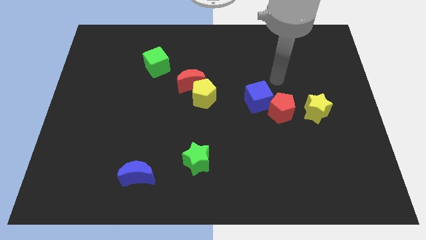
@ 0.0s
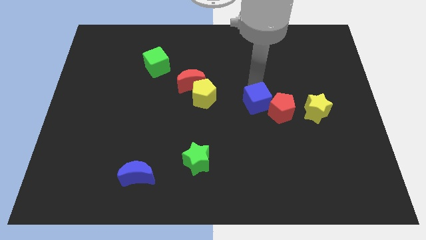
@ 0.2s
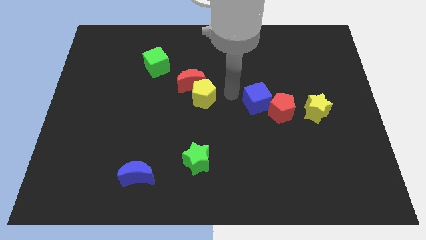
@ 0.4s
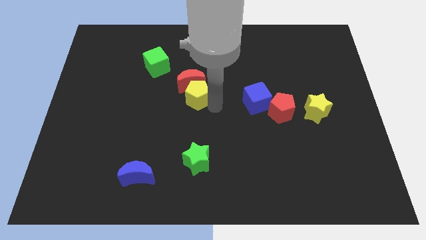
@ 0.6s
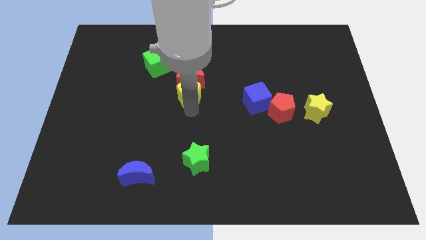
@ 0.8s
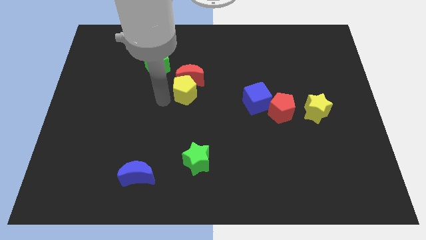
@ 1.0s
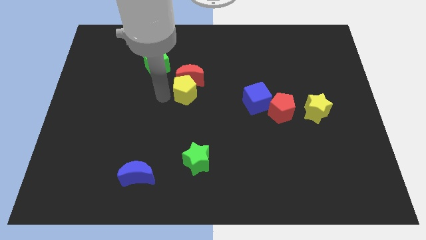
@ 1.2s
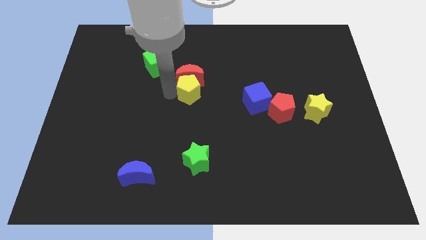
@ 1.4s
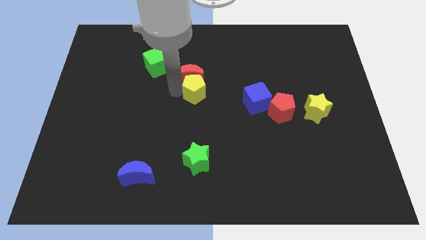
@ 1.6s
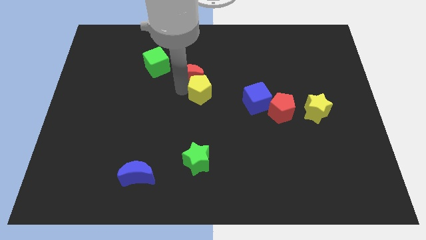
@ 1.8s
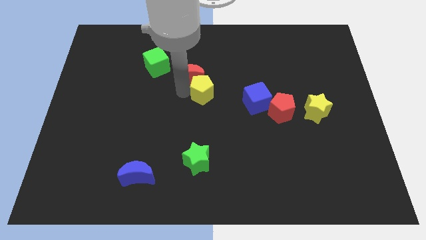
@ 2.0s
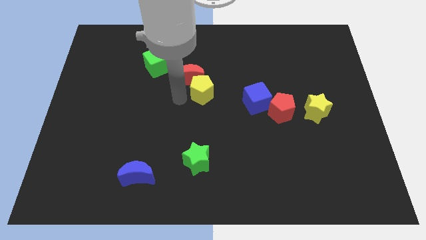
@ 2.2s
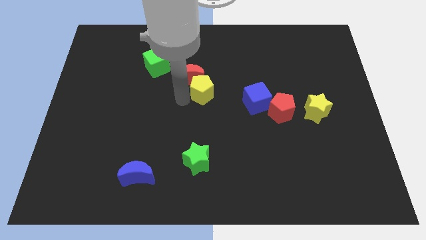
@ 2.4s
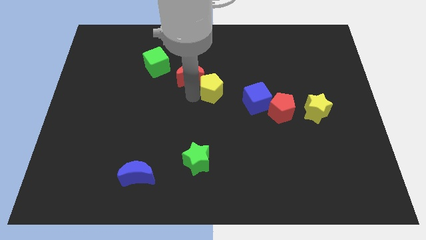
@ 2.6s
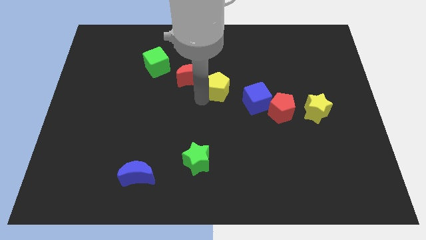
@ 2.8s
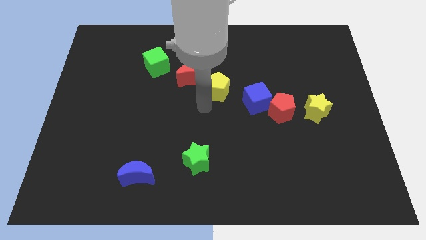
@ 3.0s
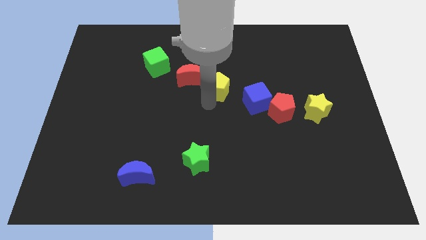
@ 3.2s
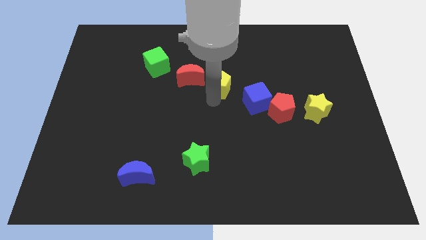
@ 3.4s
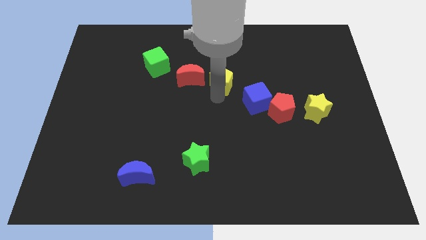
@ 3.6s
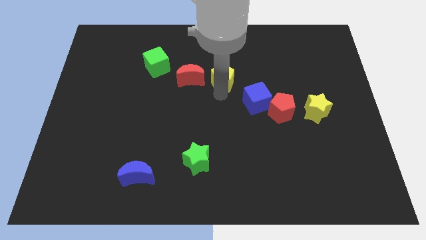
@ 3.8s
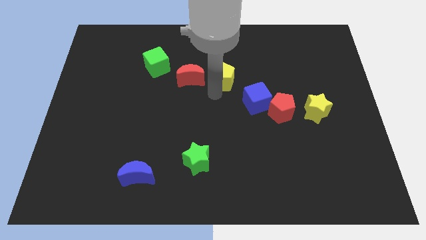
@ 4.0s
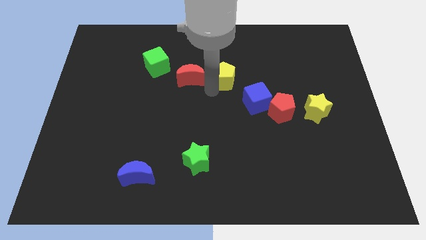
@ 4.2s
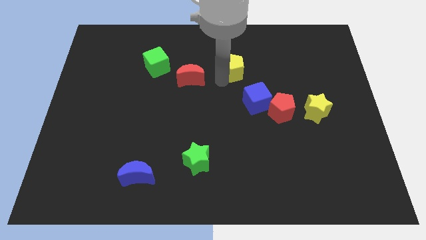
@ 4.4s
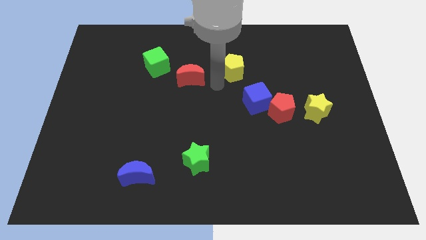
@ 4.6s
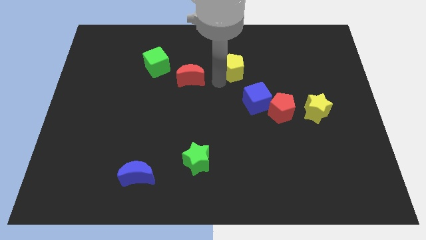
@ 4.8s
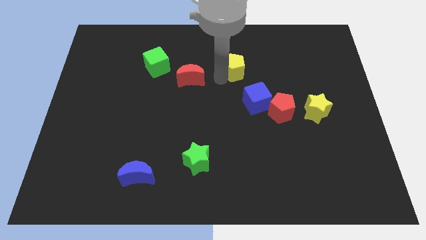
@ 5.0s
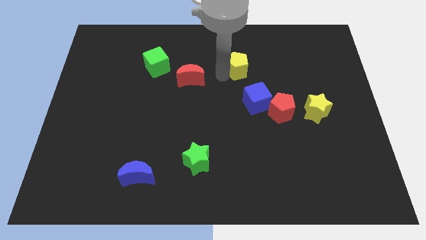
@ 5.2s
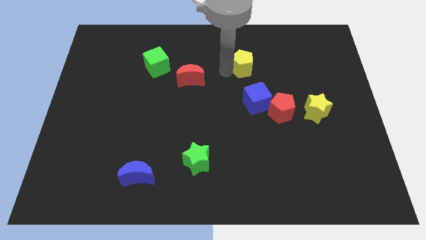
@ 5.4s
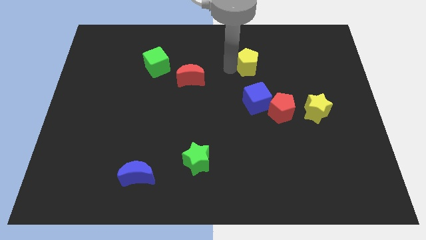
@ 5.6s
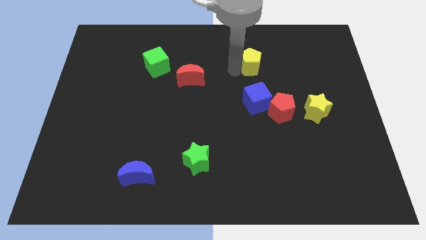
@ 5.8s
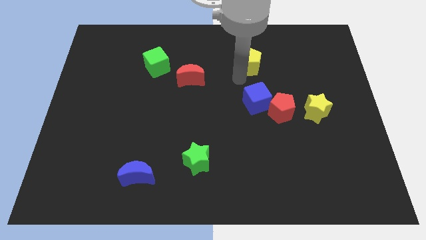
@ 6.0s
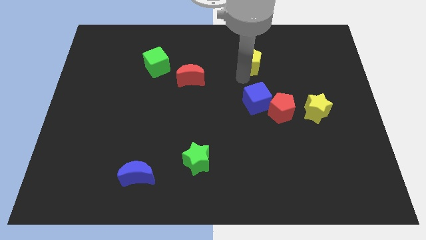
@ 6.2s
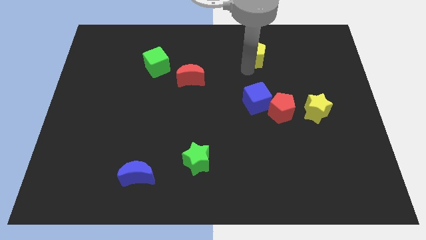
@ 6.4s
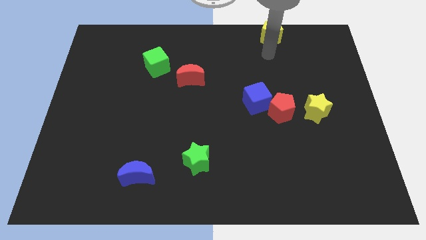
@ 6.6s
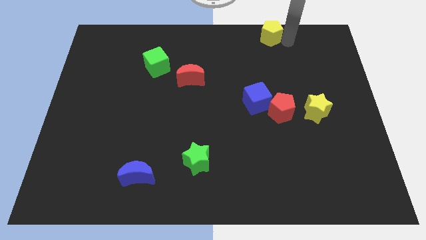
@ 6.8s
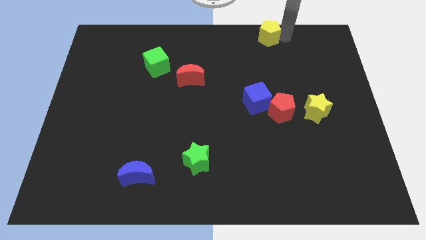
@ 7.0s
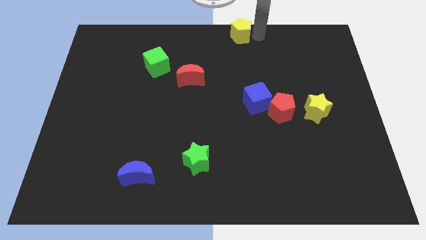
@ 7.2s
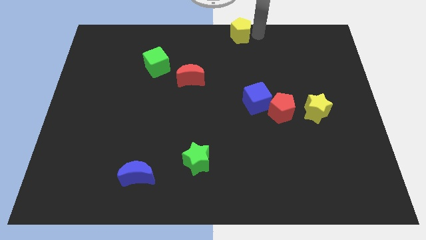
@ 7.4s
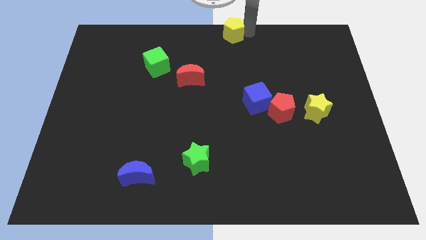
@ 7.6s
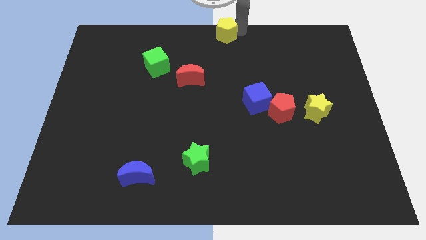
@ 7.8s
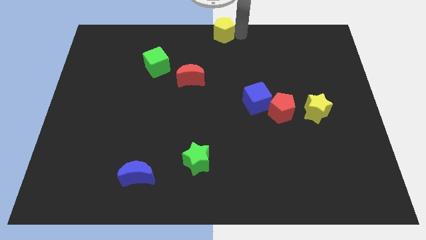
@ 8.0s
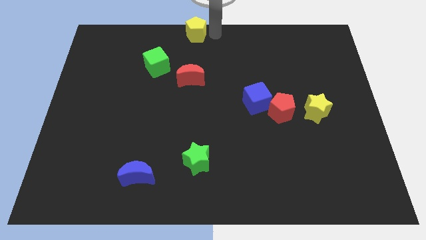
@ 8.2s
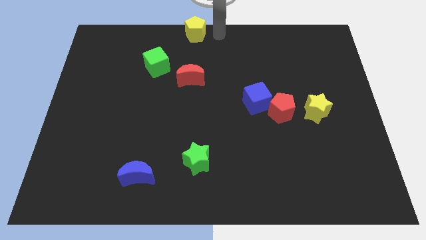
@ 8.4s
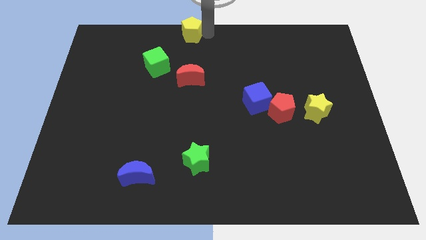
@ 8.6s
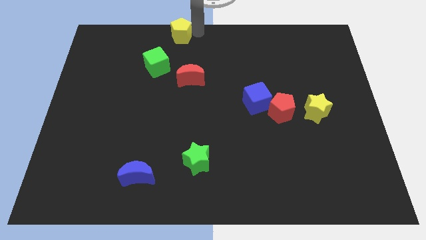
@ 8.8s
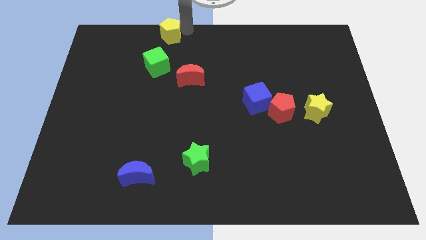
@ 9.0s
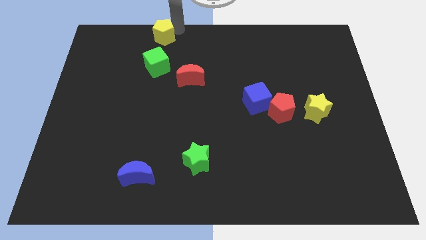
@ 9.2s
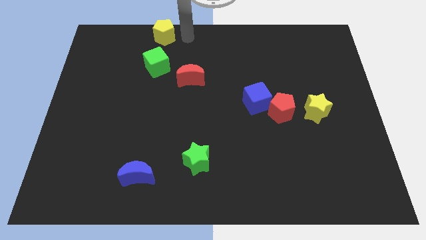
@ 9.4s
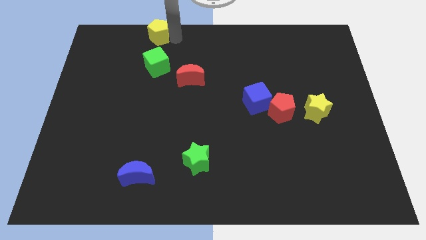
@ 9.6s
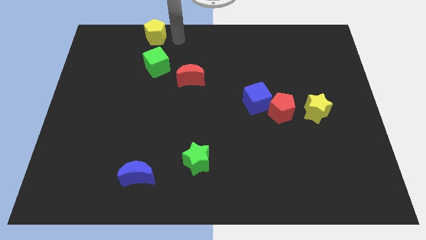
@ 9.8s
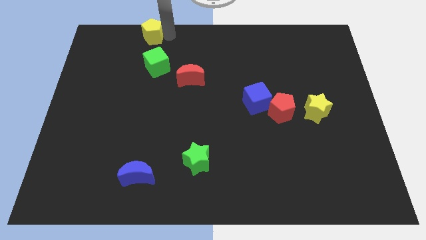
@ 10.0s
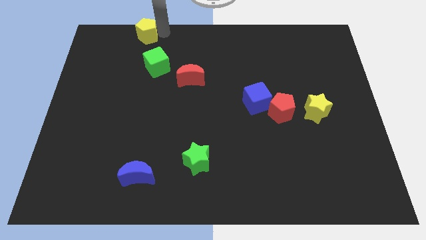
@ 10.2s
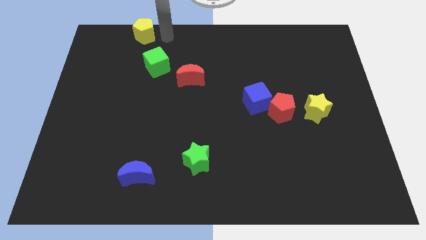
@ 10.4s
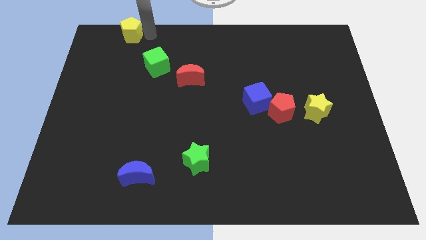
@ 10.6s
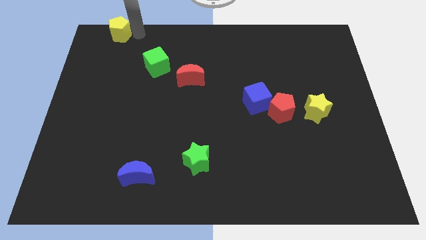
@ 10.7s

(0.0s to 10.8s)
slide the yellow pentagon to the top left

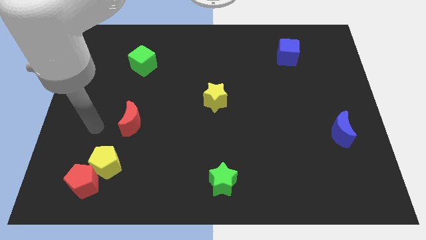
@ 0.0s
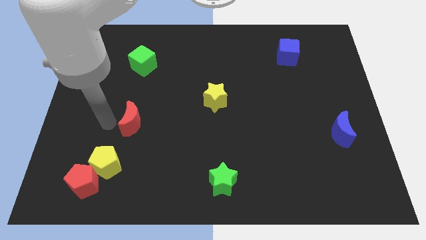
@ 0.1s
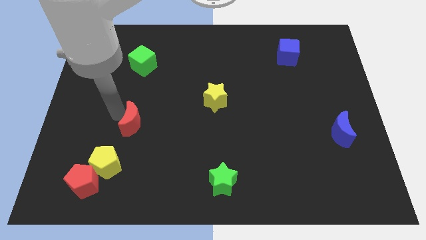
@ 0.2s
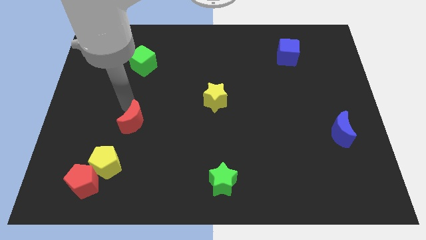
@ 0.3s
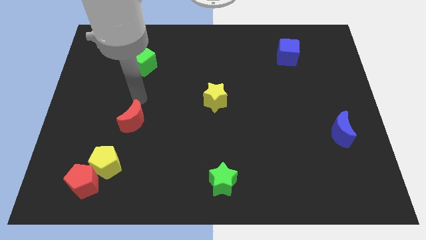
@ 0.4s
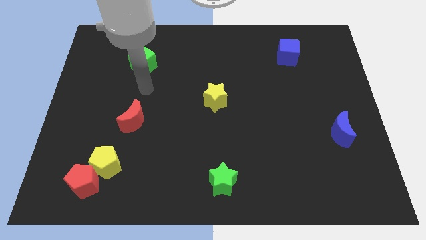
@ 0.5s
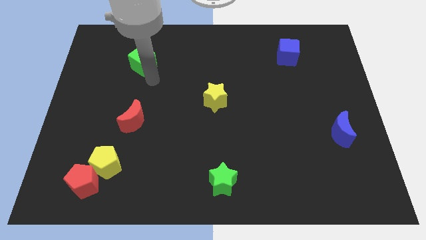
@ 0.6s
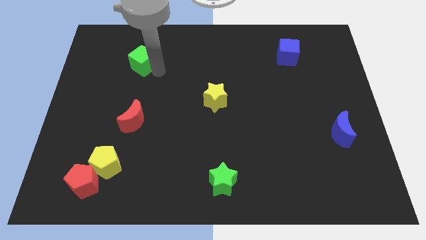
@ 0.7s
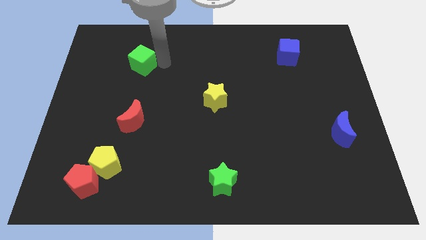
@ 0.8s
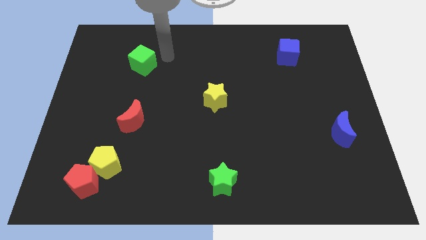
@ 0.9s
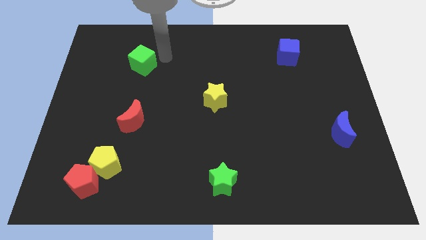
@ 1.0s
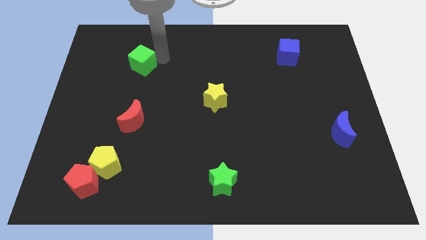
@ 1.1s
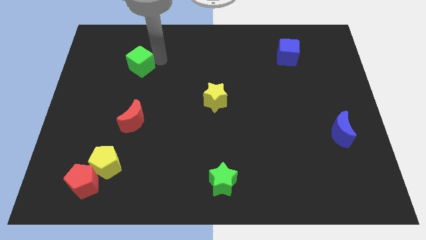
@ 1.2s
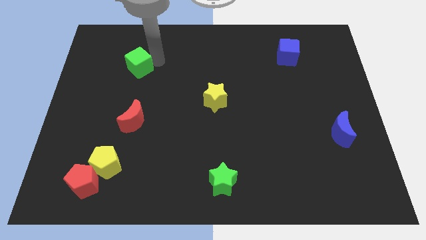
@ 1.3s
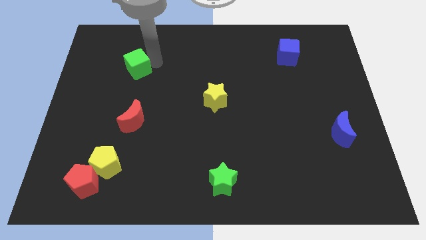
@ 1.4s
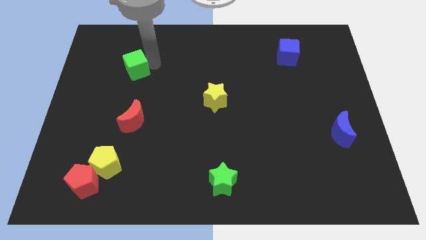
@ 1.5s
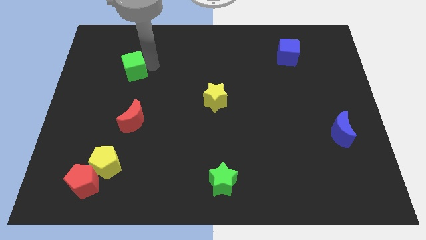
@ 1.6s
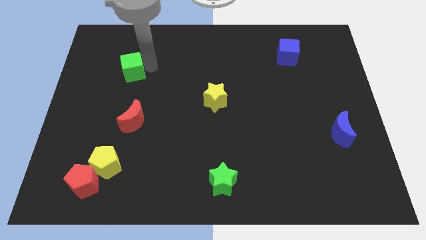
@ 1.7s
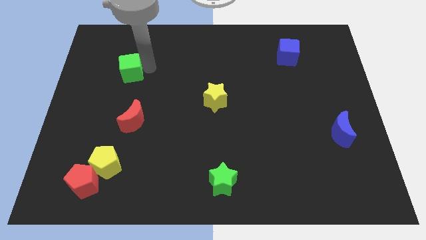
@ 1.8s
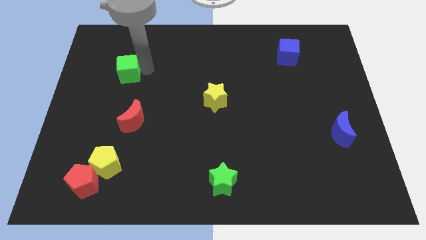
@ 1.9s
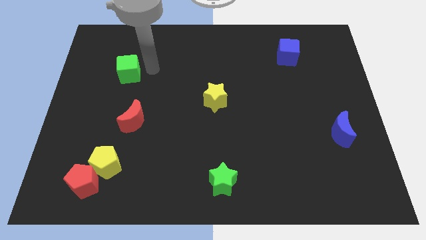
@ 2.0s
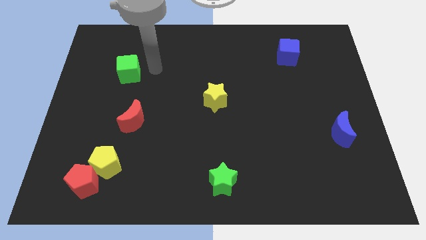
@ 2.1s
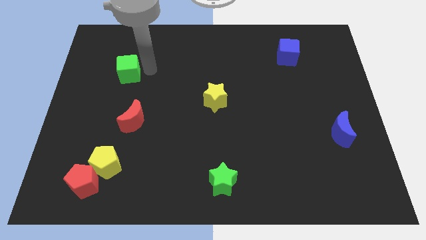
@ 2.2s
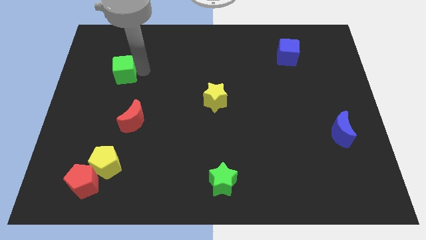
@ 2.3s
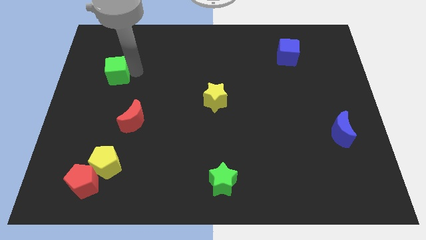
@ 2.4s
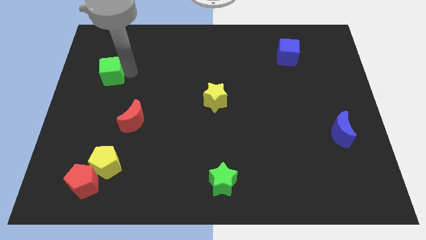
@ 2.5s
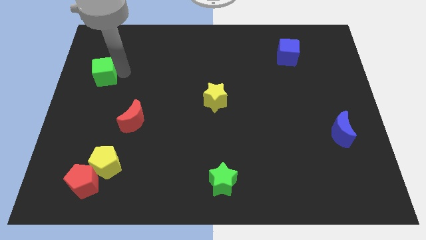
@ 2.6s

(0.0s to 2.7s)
push the green cube to the center left
